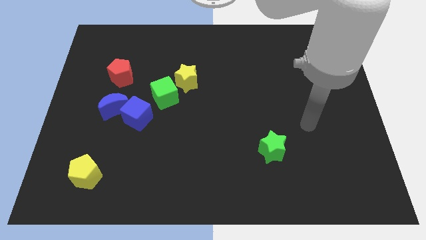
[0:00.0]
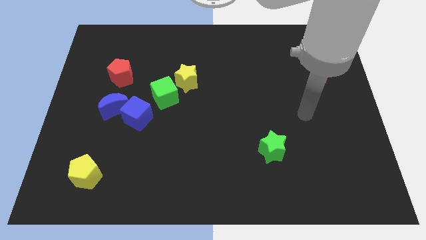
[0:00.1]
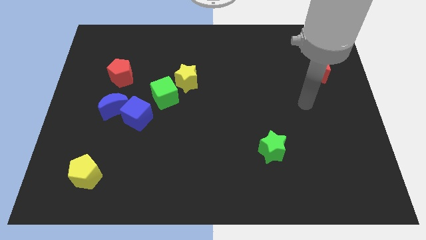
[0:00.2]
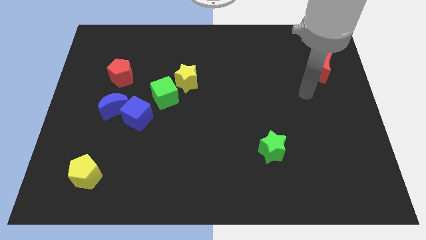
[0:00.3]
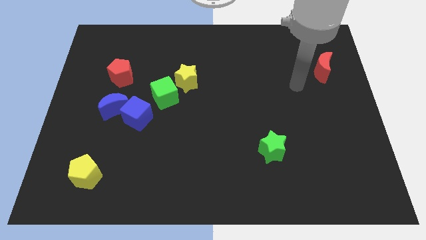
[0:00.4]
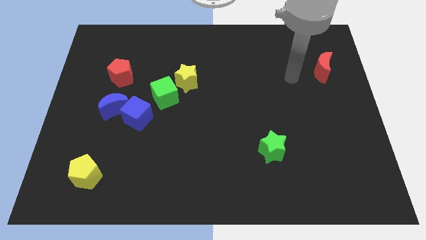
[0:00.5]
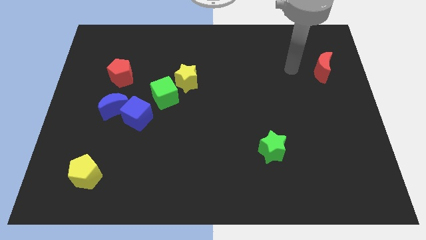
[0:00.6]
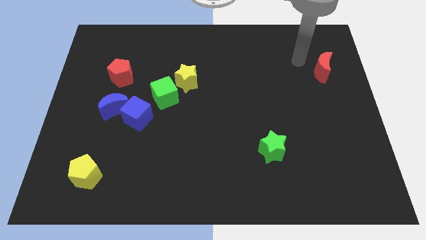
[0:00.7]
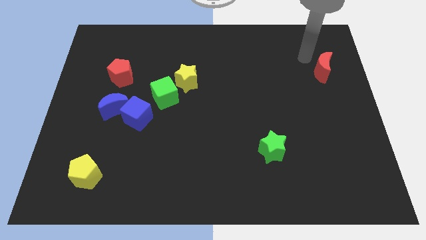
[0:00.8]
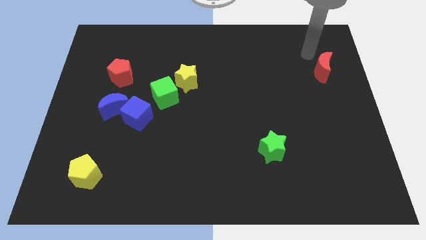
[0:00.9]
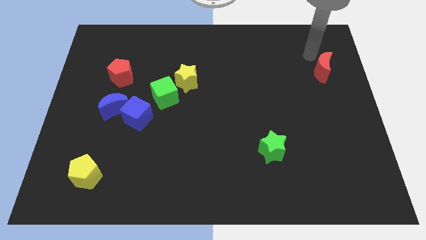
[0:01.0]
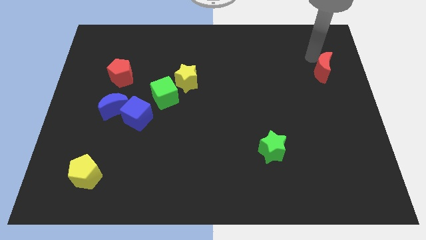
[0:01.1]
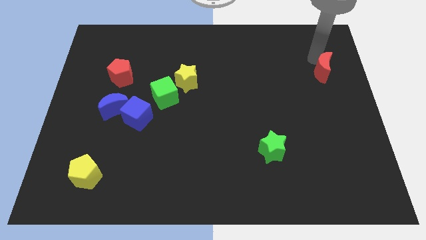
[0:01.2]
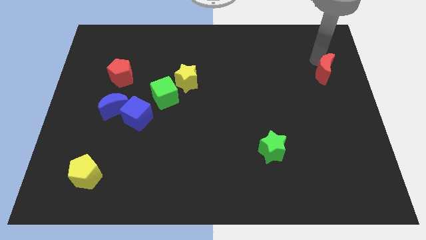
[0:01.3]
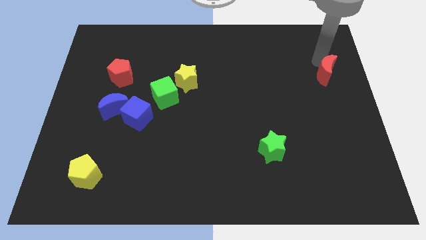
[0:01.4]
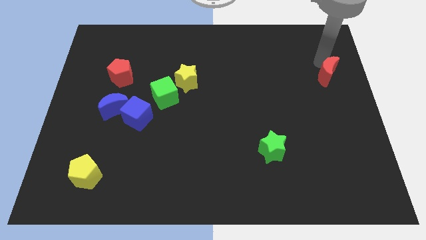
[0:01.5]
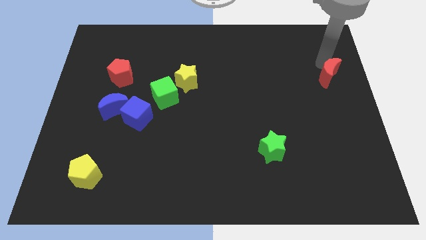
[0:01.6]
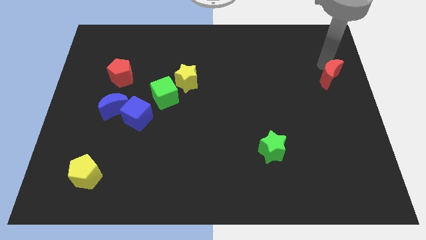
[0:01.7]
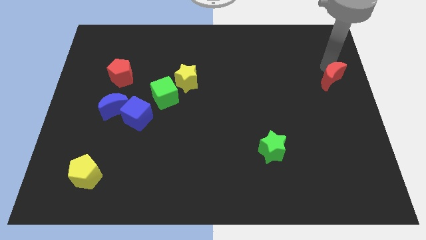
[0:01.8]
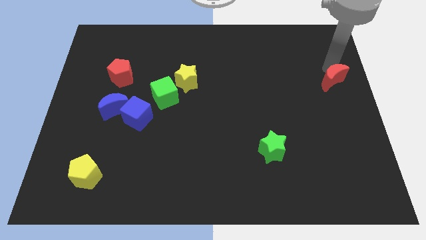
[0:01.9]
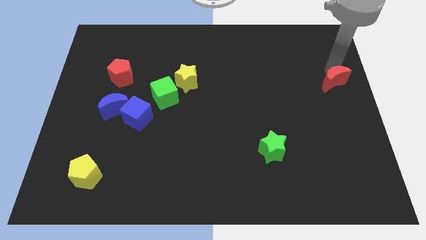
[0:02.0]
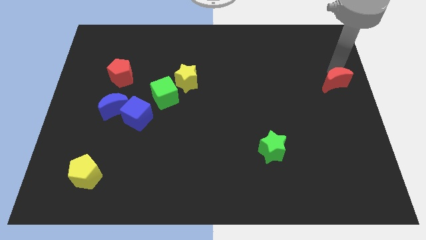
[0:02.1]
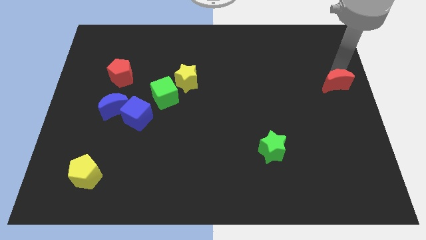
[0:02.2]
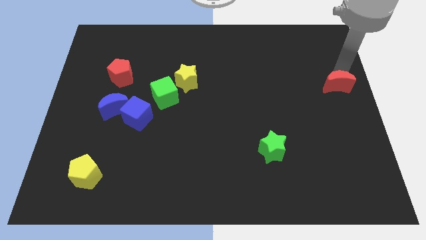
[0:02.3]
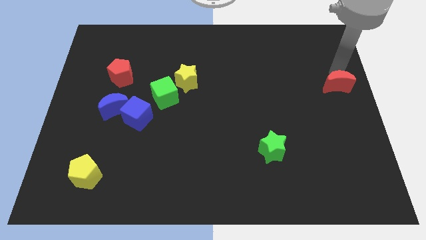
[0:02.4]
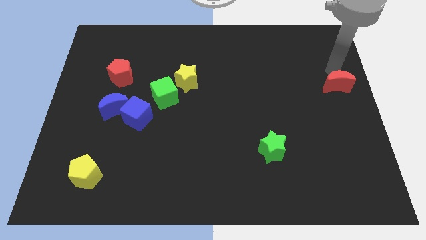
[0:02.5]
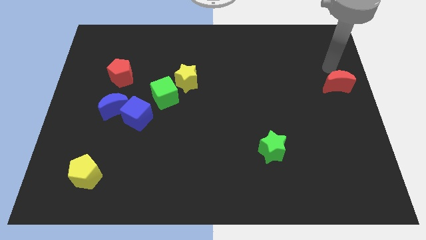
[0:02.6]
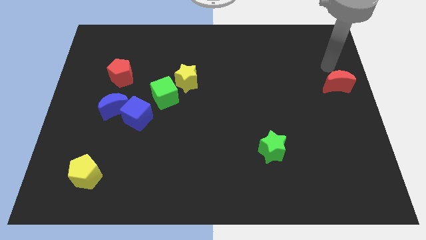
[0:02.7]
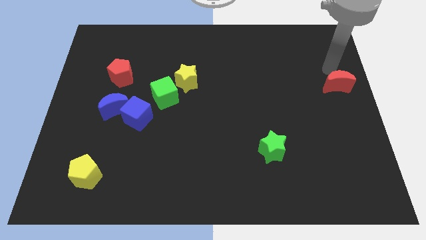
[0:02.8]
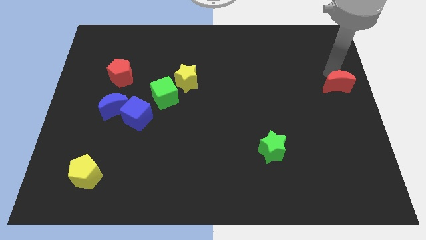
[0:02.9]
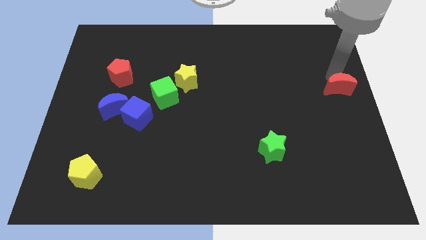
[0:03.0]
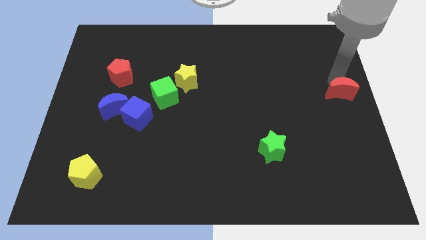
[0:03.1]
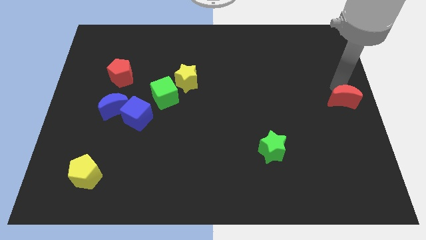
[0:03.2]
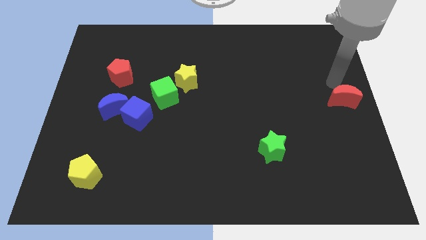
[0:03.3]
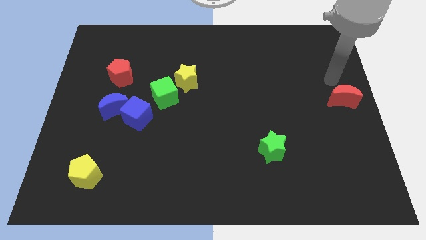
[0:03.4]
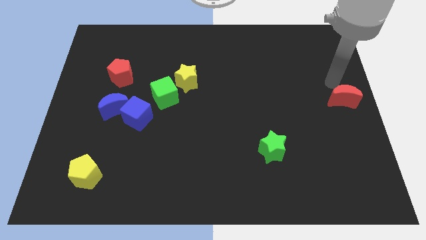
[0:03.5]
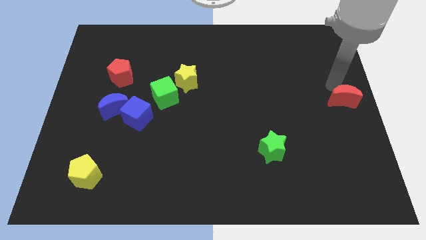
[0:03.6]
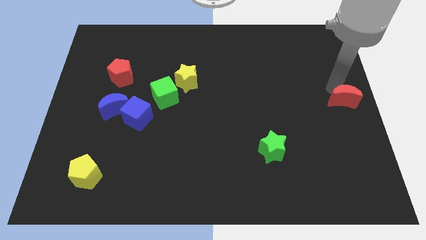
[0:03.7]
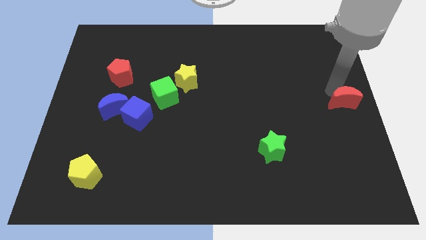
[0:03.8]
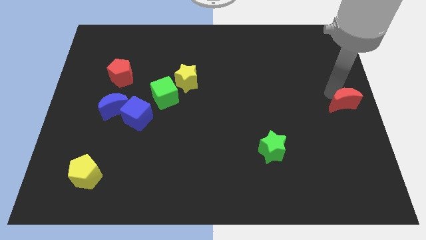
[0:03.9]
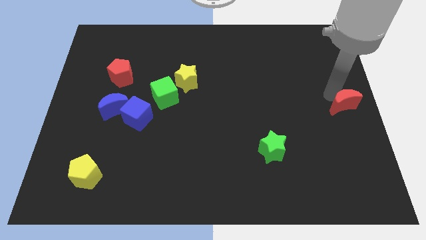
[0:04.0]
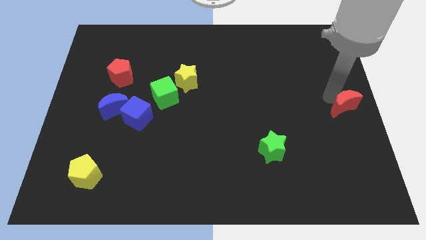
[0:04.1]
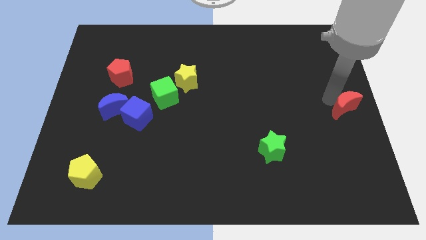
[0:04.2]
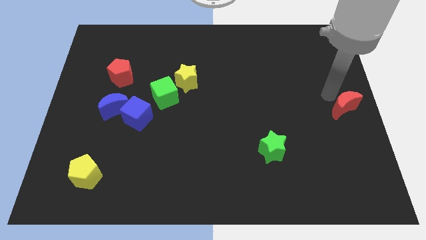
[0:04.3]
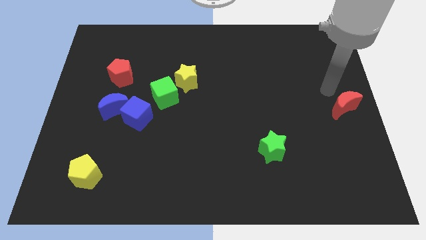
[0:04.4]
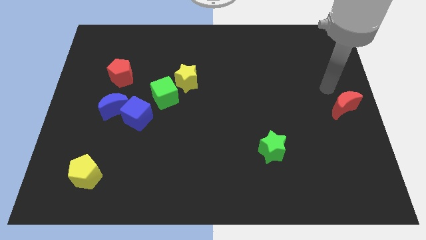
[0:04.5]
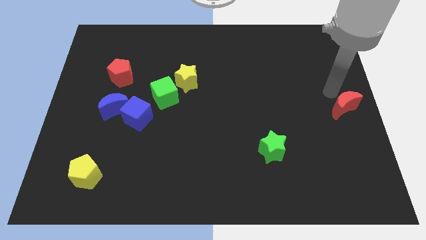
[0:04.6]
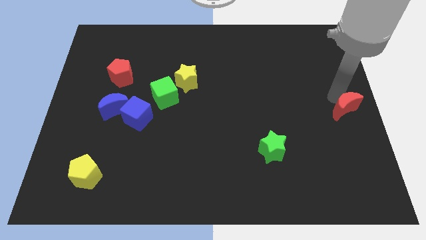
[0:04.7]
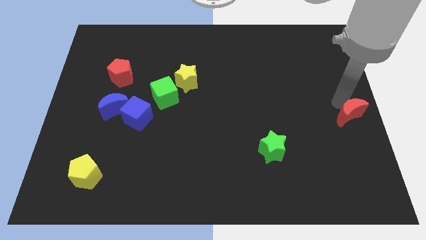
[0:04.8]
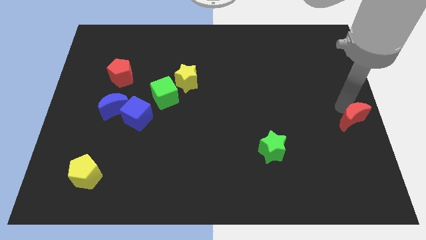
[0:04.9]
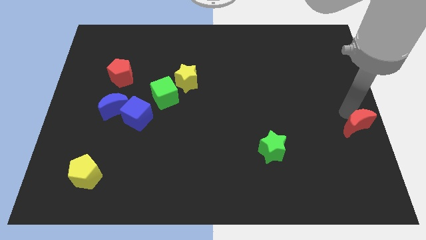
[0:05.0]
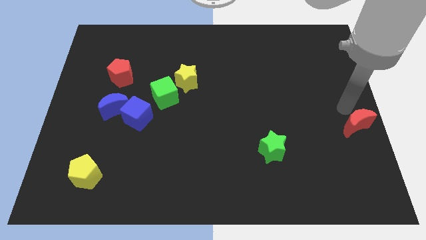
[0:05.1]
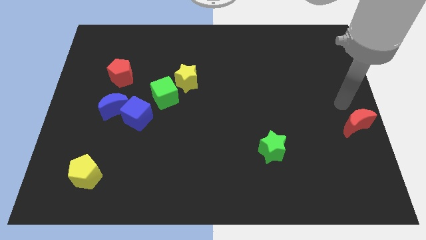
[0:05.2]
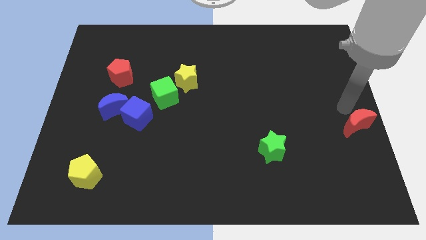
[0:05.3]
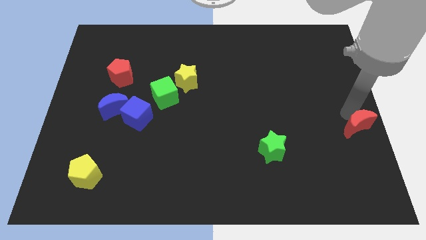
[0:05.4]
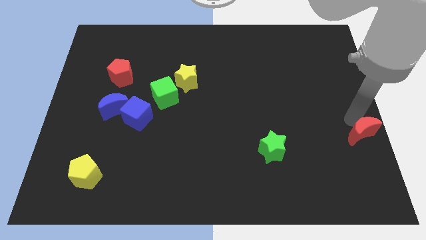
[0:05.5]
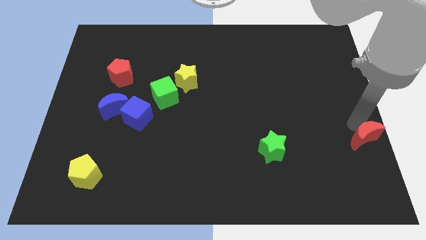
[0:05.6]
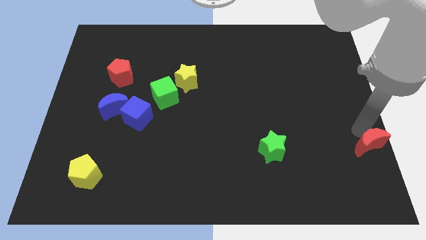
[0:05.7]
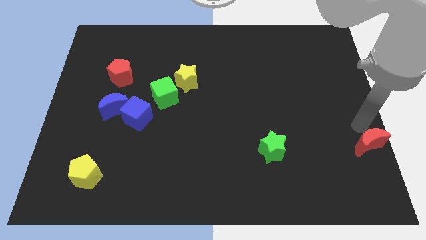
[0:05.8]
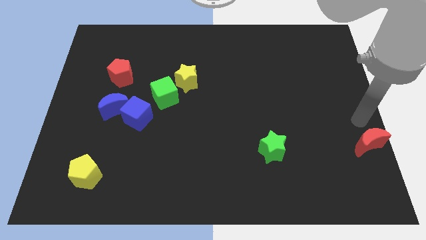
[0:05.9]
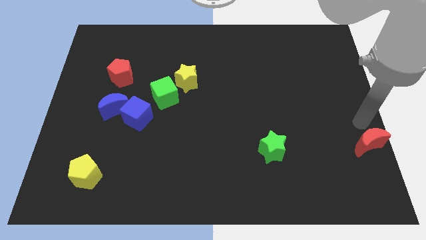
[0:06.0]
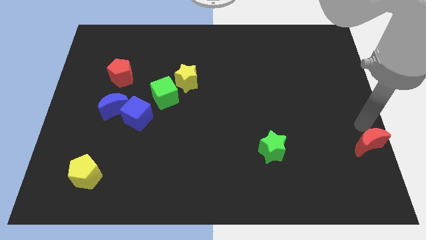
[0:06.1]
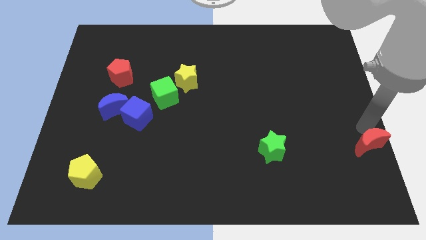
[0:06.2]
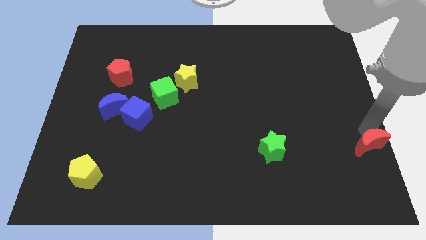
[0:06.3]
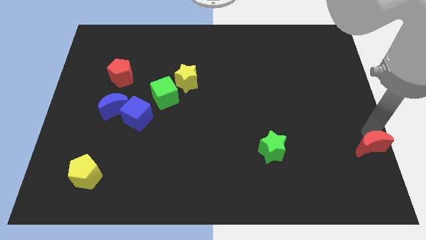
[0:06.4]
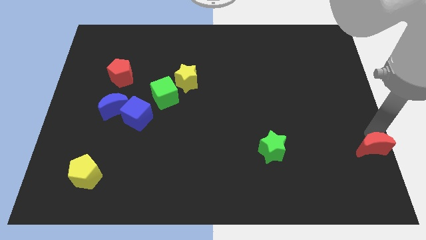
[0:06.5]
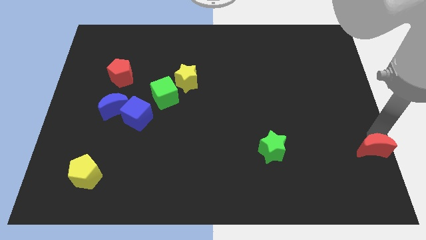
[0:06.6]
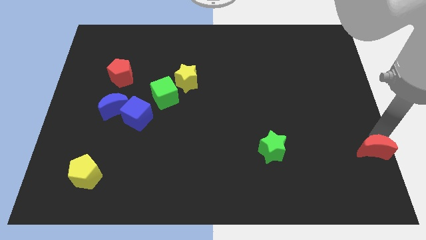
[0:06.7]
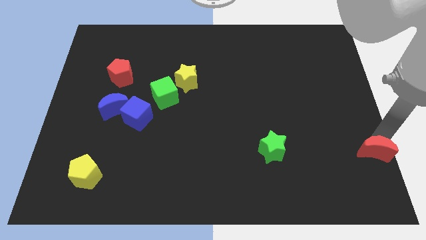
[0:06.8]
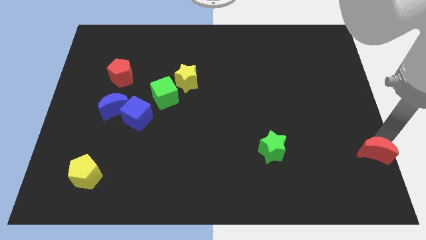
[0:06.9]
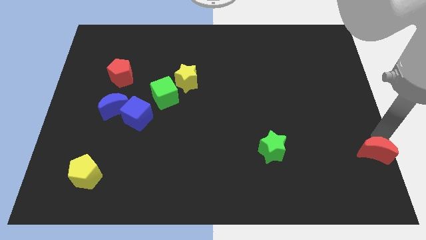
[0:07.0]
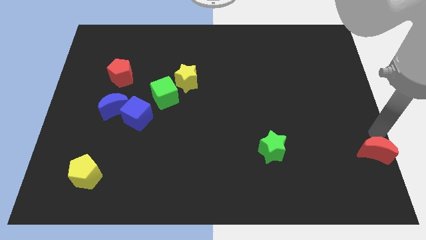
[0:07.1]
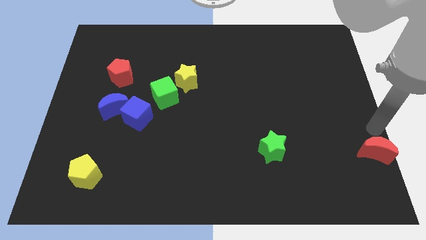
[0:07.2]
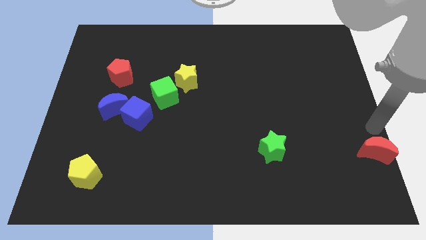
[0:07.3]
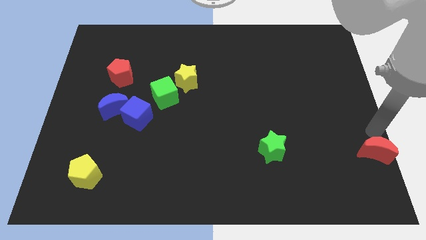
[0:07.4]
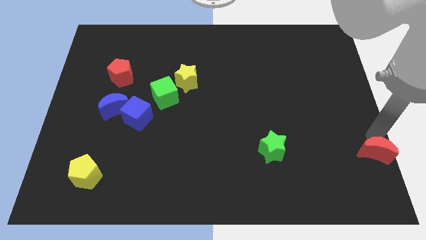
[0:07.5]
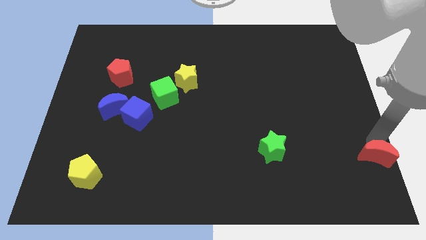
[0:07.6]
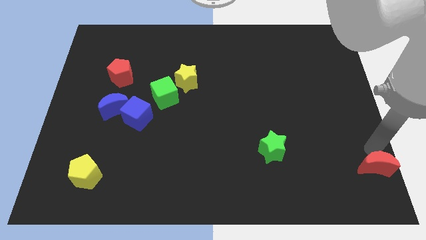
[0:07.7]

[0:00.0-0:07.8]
move the red moon to the lower right corner
